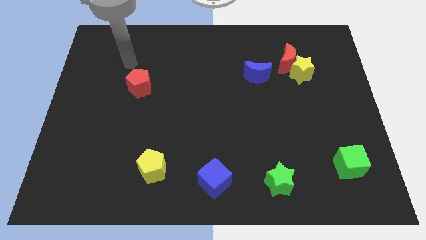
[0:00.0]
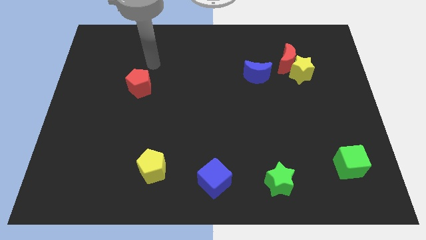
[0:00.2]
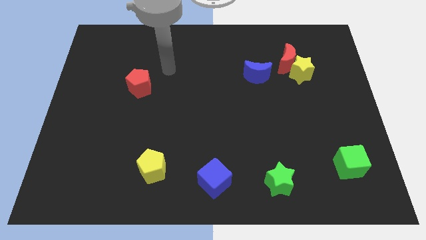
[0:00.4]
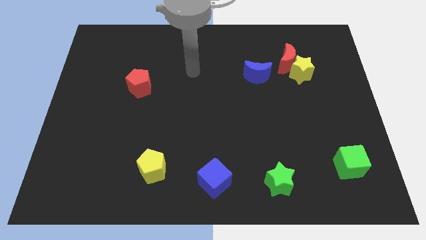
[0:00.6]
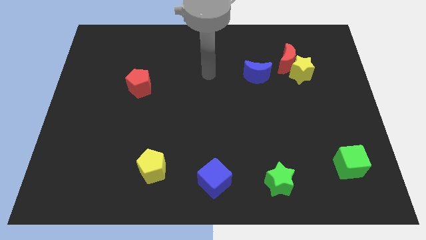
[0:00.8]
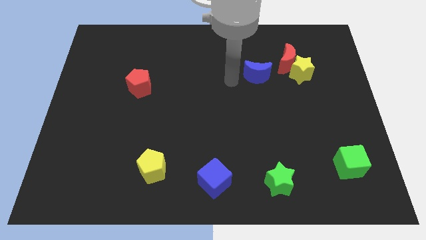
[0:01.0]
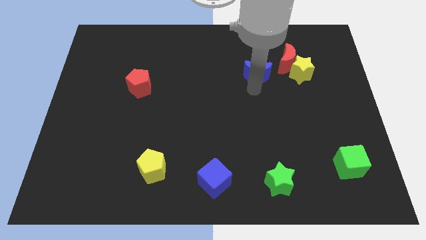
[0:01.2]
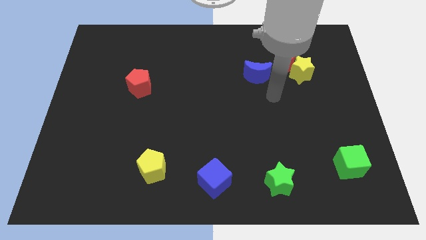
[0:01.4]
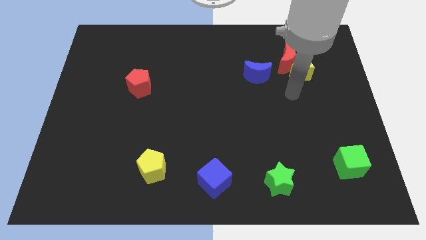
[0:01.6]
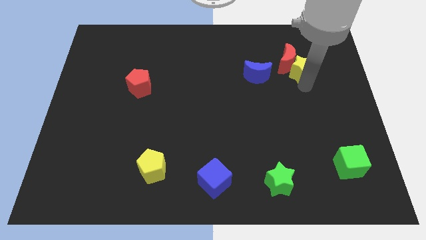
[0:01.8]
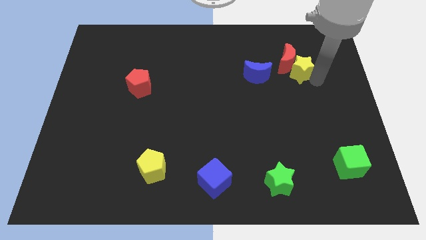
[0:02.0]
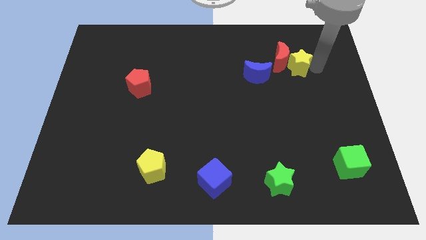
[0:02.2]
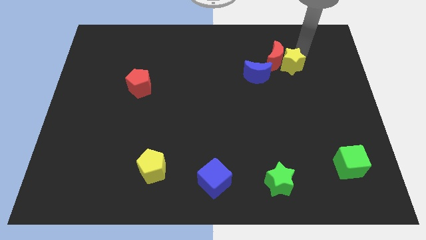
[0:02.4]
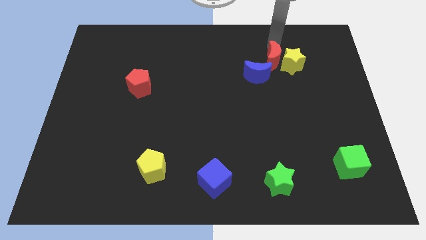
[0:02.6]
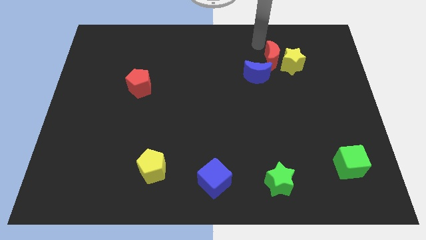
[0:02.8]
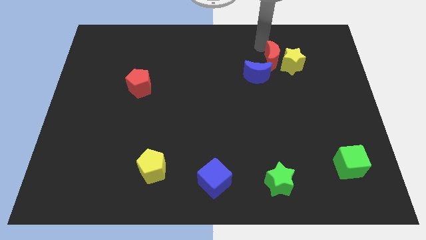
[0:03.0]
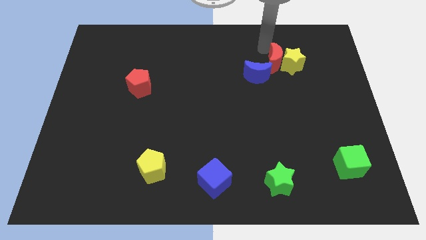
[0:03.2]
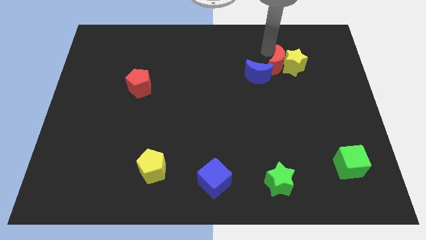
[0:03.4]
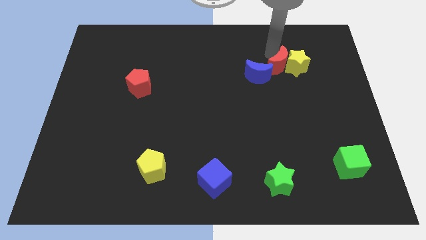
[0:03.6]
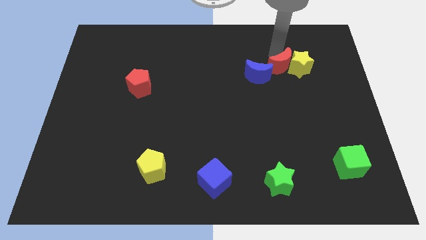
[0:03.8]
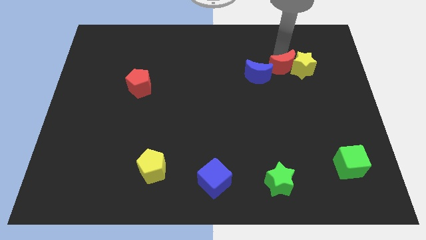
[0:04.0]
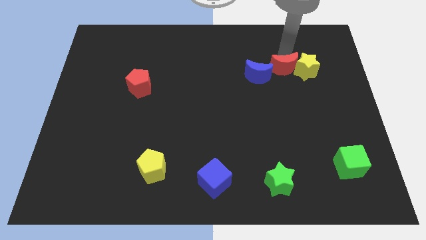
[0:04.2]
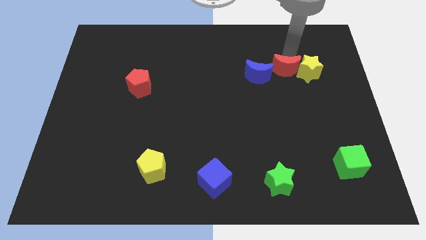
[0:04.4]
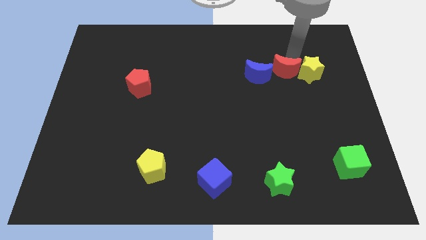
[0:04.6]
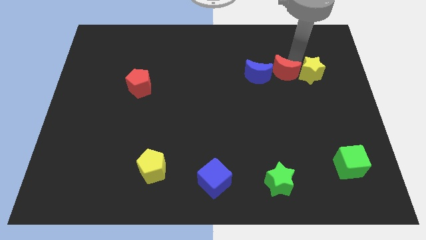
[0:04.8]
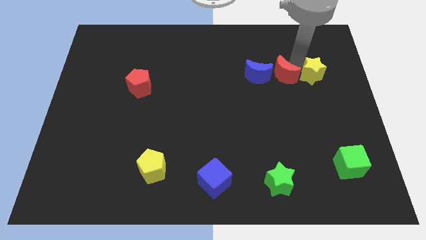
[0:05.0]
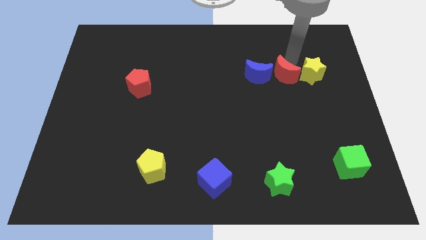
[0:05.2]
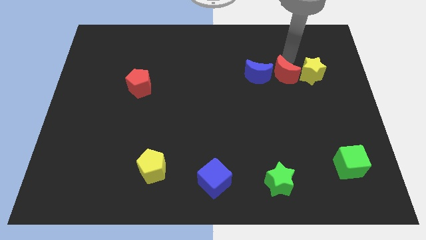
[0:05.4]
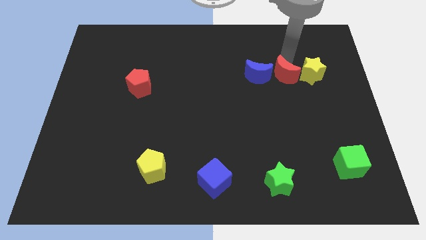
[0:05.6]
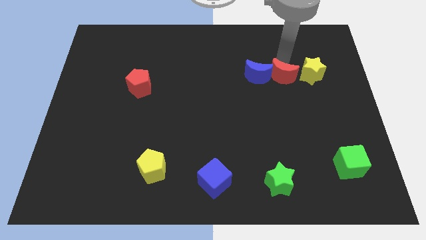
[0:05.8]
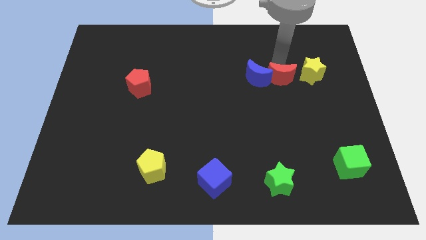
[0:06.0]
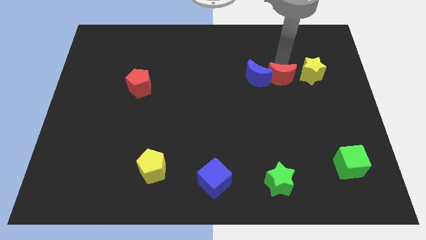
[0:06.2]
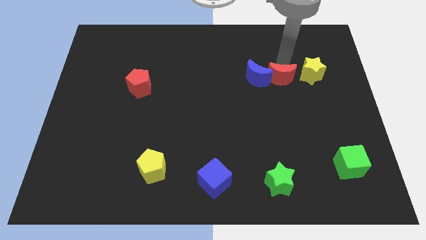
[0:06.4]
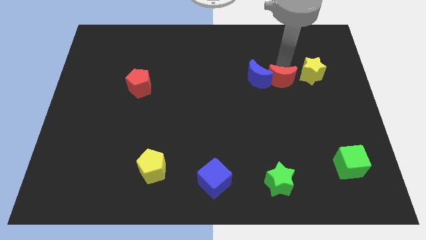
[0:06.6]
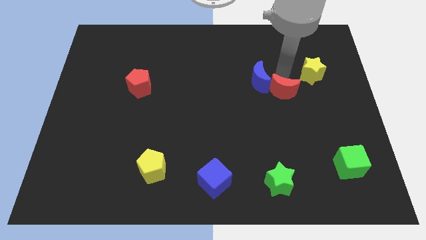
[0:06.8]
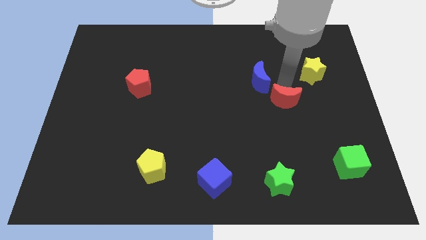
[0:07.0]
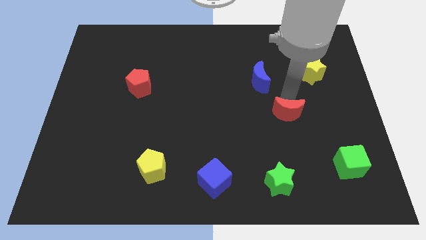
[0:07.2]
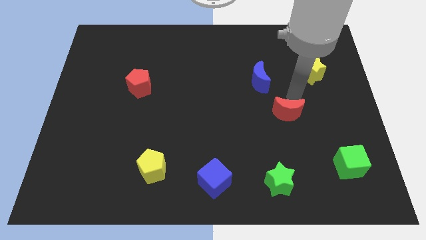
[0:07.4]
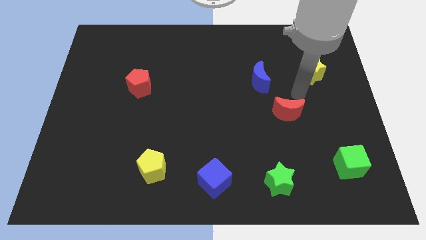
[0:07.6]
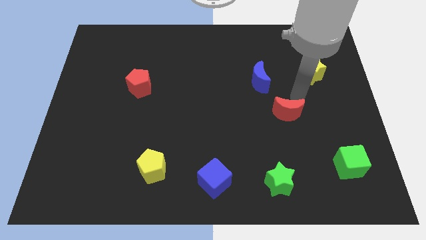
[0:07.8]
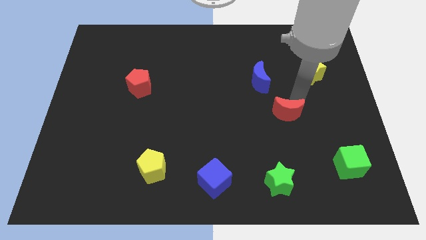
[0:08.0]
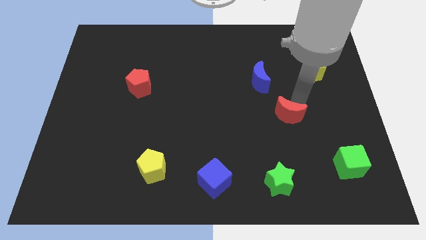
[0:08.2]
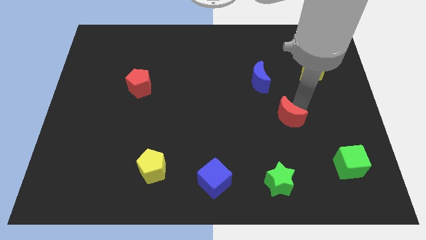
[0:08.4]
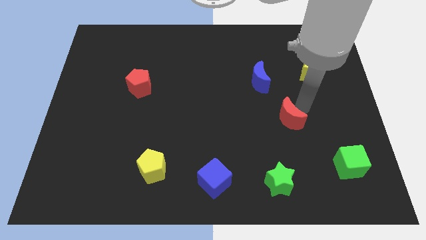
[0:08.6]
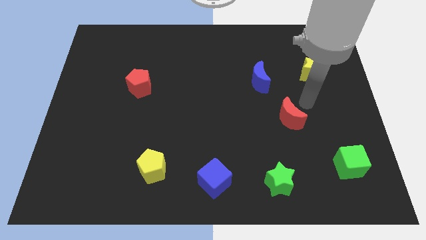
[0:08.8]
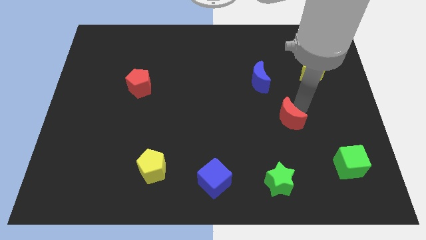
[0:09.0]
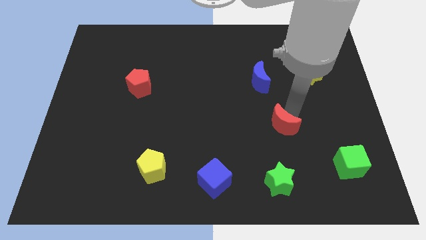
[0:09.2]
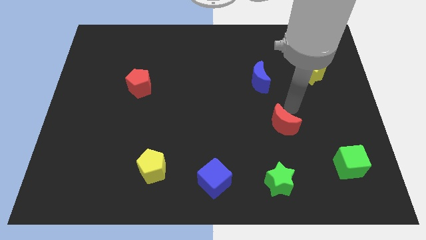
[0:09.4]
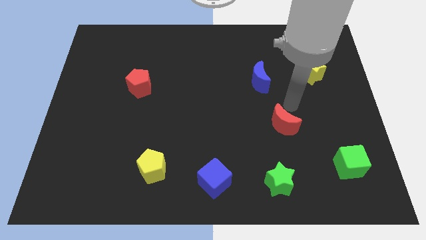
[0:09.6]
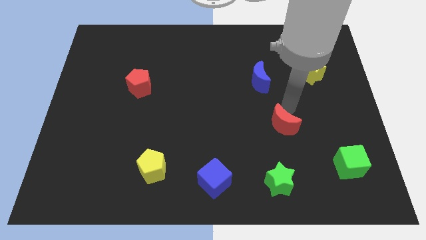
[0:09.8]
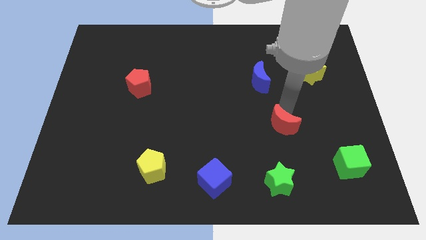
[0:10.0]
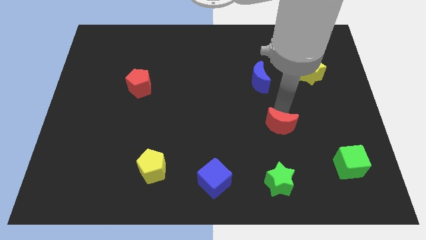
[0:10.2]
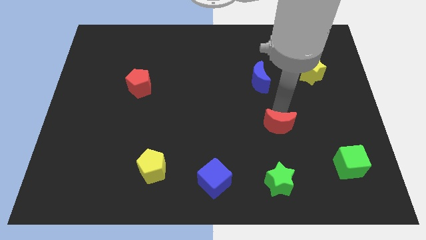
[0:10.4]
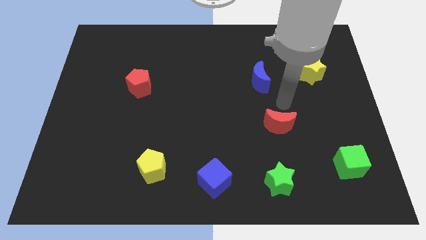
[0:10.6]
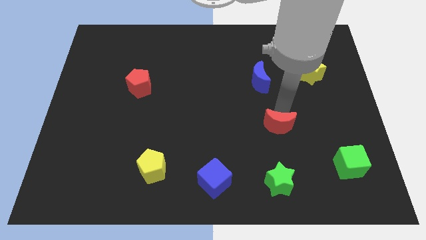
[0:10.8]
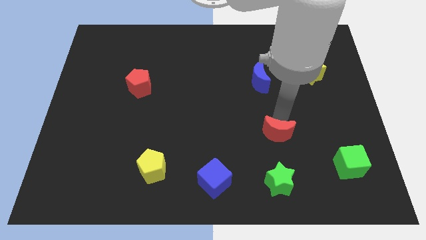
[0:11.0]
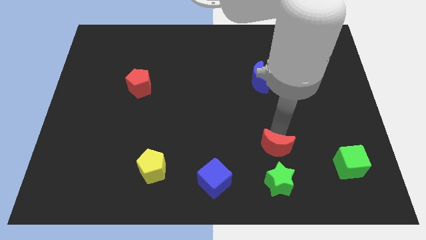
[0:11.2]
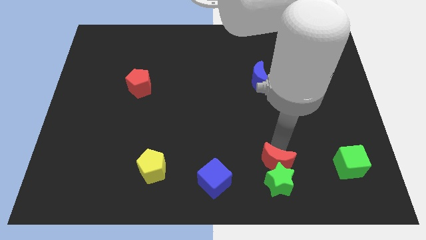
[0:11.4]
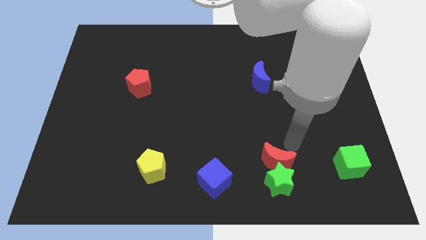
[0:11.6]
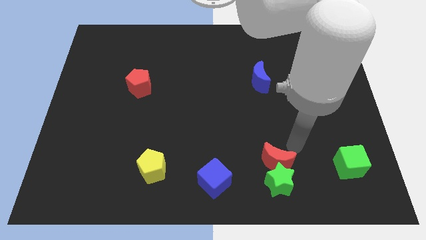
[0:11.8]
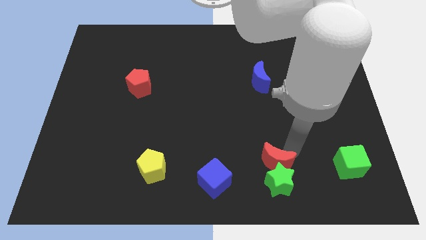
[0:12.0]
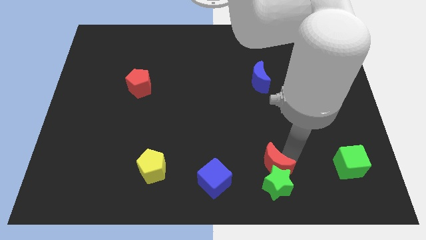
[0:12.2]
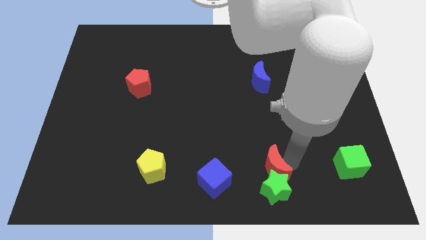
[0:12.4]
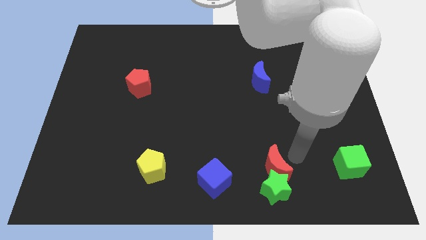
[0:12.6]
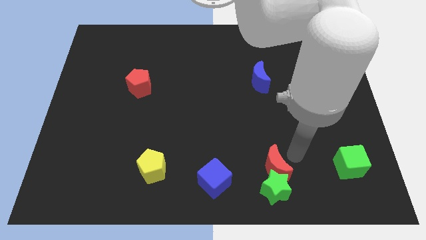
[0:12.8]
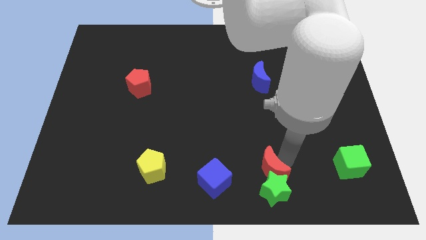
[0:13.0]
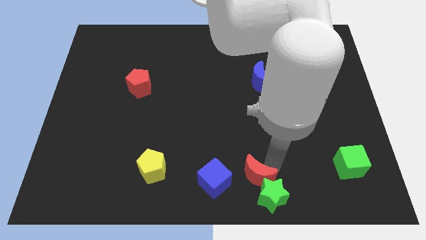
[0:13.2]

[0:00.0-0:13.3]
put the red moon to the bottom
